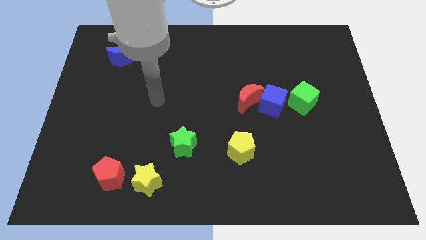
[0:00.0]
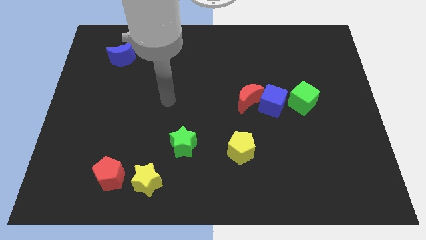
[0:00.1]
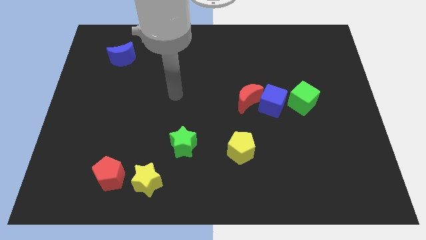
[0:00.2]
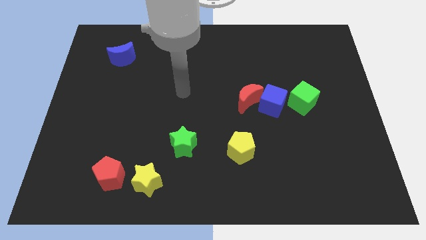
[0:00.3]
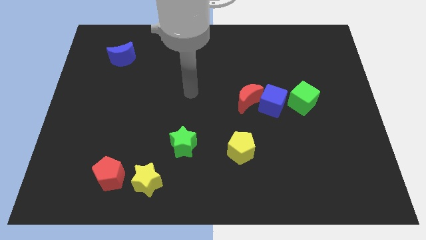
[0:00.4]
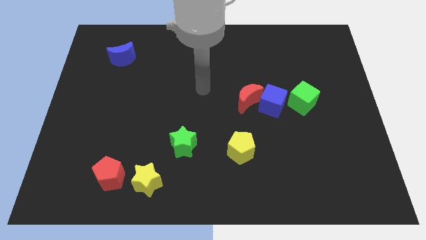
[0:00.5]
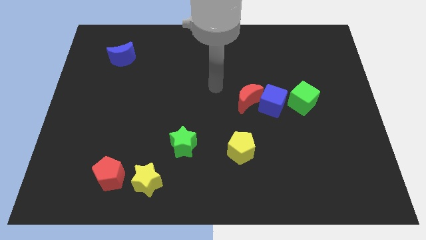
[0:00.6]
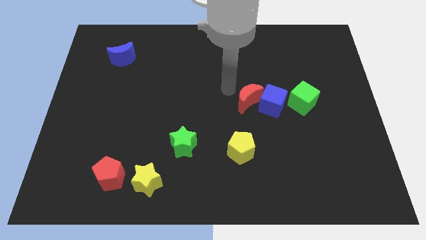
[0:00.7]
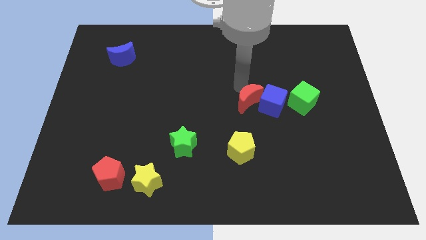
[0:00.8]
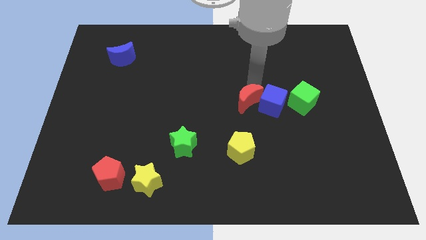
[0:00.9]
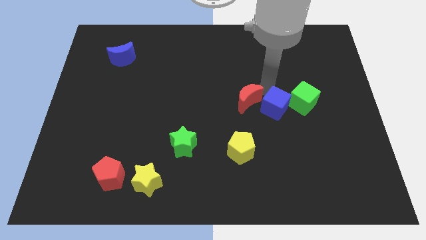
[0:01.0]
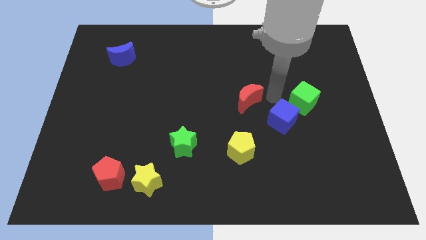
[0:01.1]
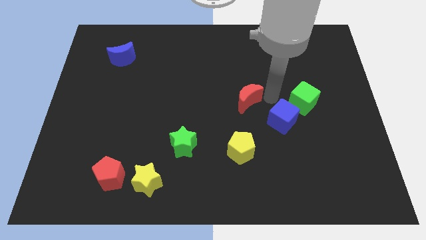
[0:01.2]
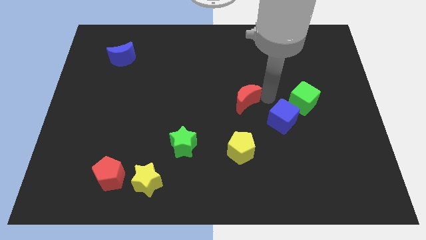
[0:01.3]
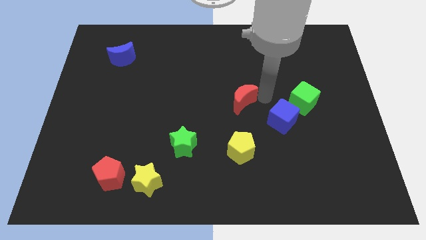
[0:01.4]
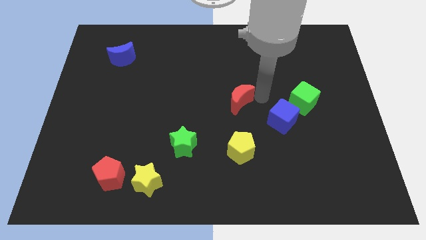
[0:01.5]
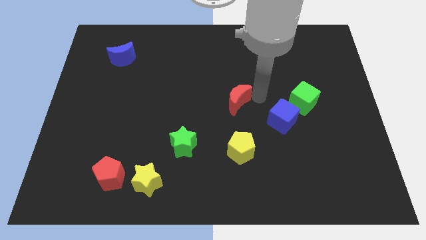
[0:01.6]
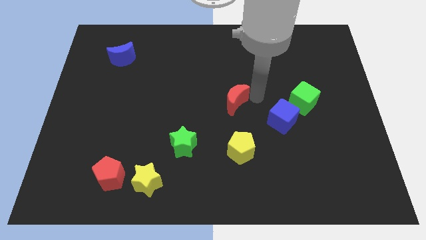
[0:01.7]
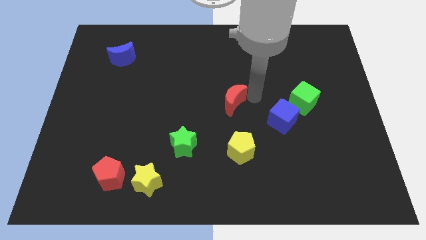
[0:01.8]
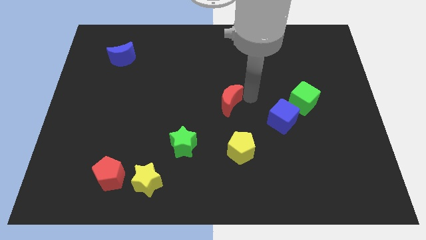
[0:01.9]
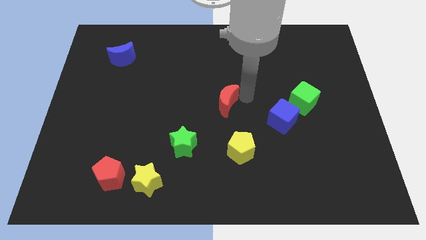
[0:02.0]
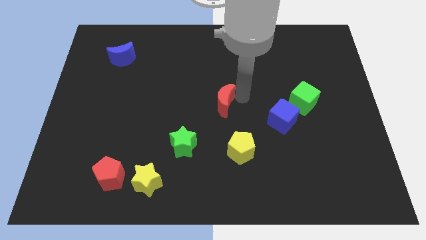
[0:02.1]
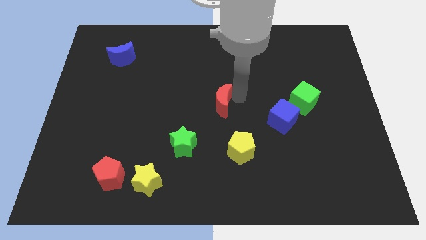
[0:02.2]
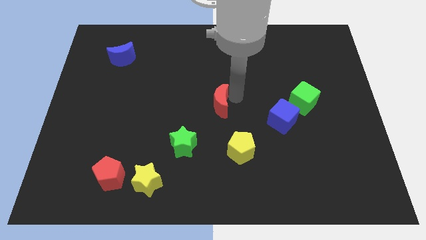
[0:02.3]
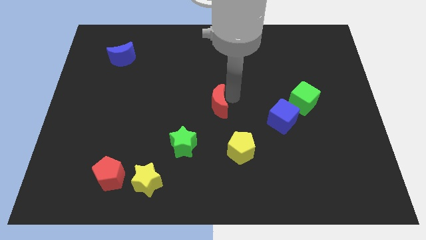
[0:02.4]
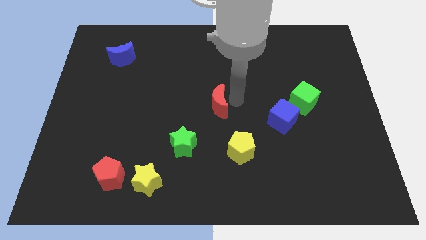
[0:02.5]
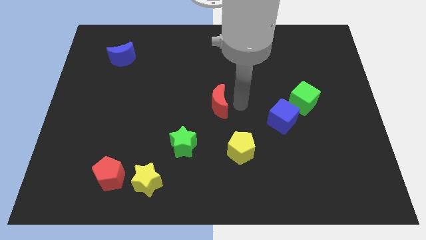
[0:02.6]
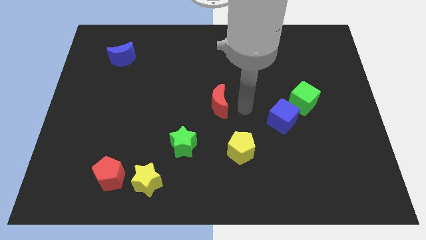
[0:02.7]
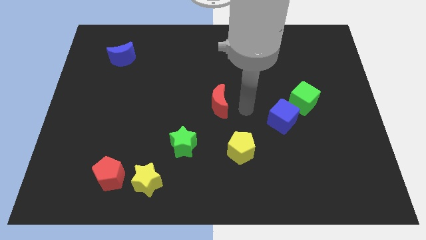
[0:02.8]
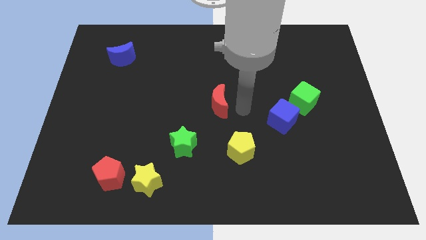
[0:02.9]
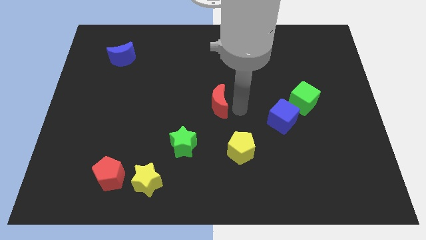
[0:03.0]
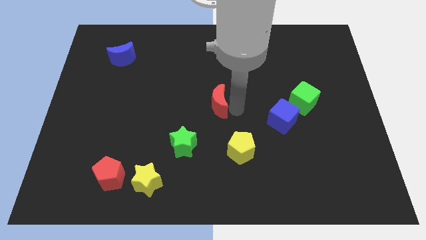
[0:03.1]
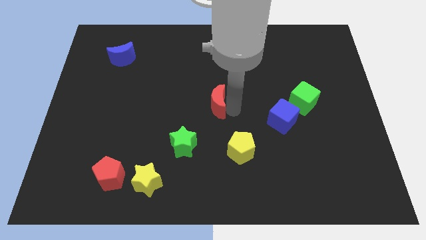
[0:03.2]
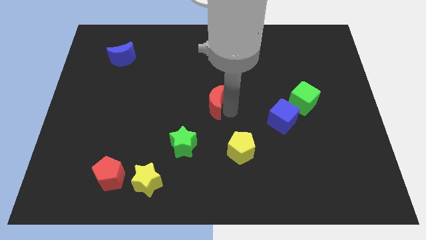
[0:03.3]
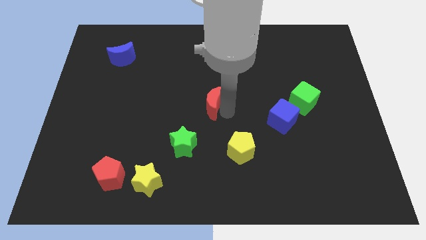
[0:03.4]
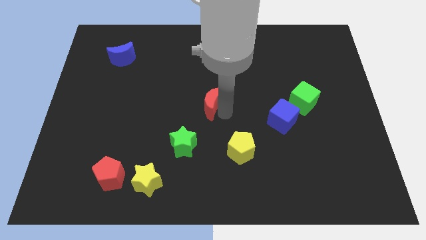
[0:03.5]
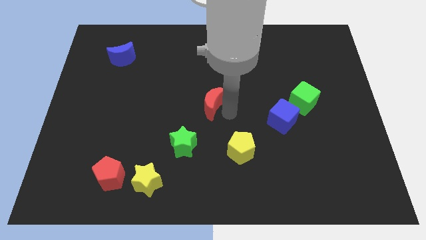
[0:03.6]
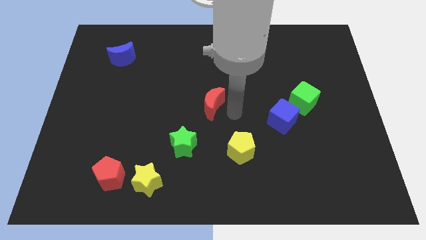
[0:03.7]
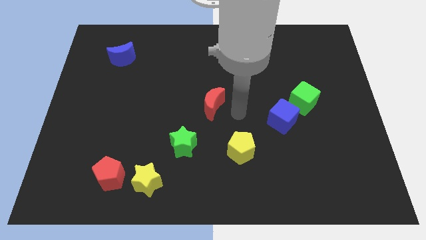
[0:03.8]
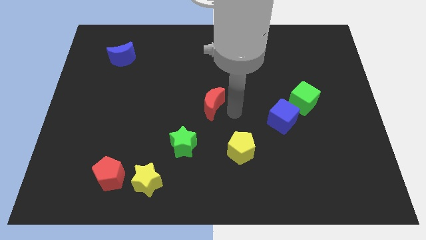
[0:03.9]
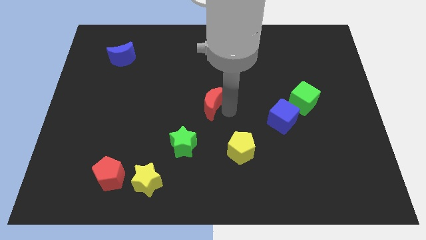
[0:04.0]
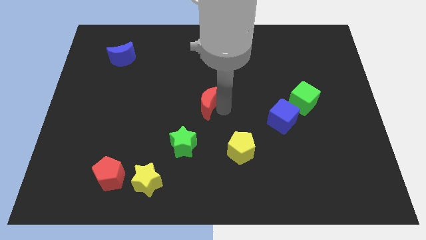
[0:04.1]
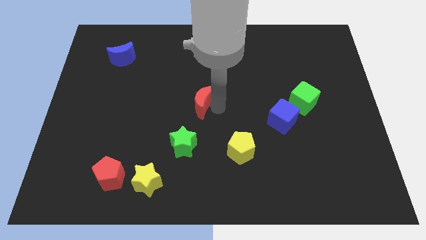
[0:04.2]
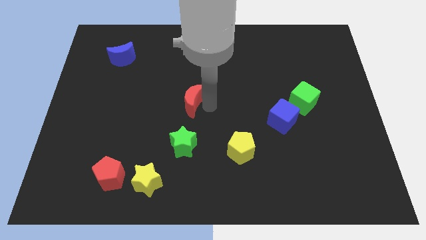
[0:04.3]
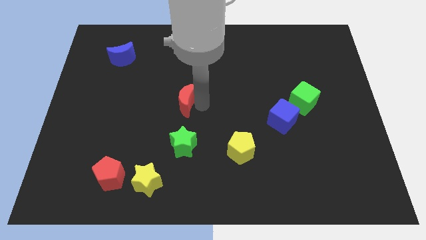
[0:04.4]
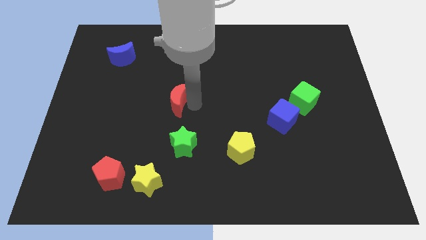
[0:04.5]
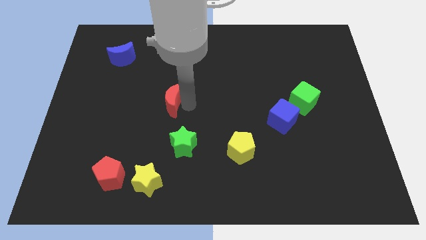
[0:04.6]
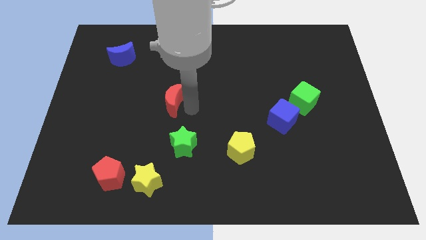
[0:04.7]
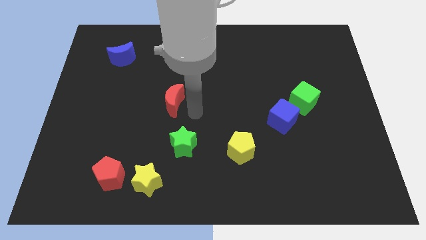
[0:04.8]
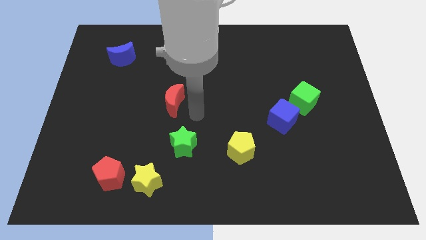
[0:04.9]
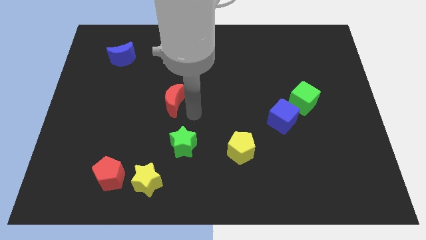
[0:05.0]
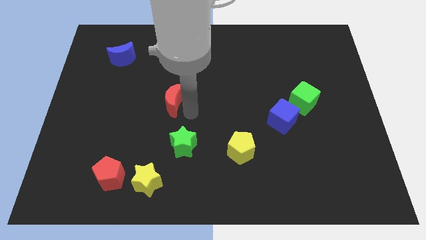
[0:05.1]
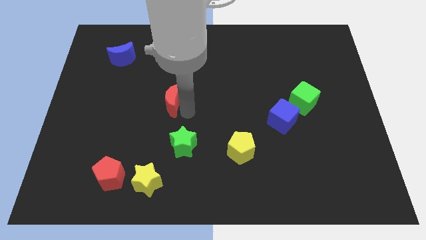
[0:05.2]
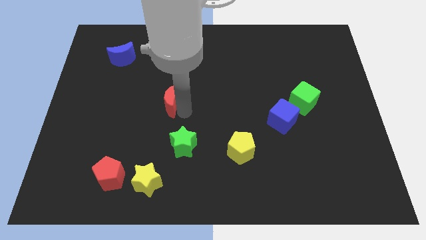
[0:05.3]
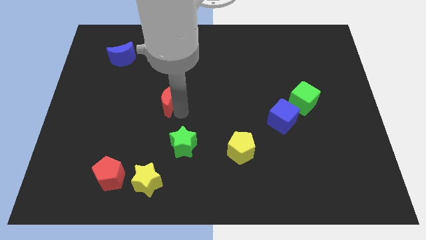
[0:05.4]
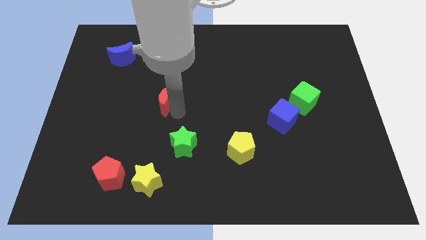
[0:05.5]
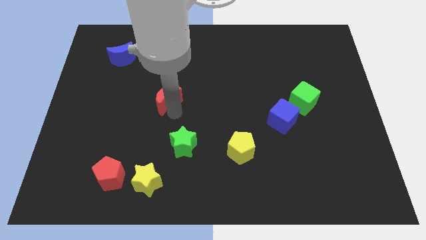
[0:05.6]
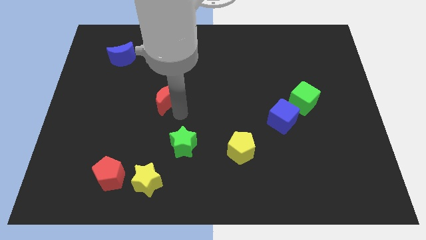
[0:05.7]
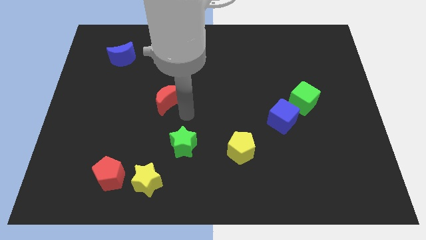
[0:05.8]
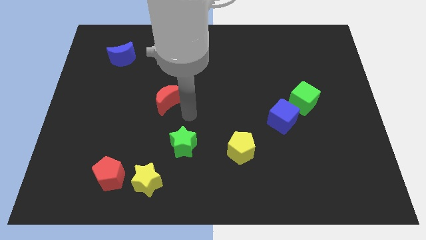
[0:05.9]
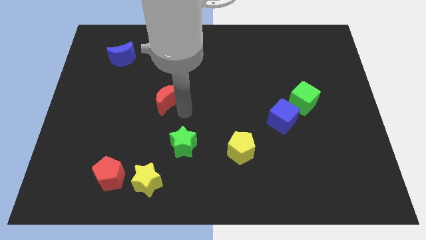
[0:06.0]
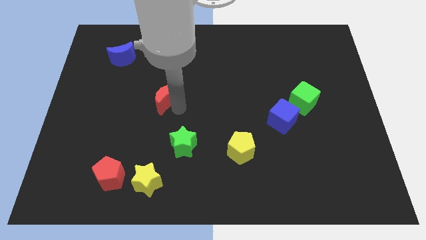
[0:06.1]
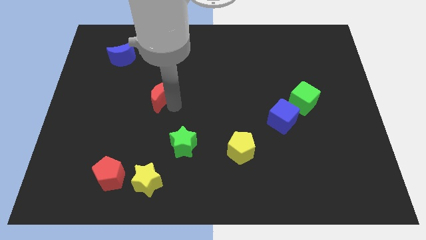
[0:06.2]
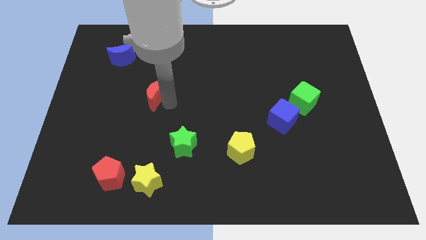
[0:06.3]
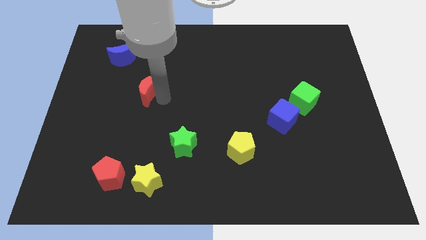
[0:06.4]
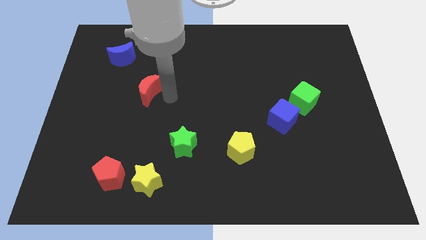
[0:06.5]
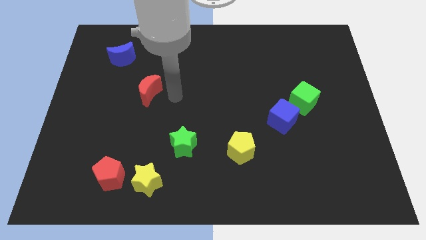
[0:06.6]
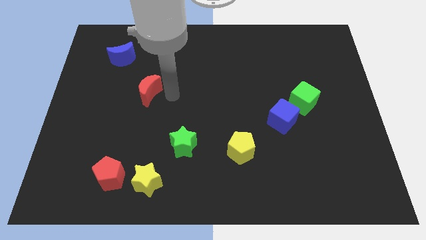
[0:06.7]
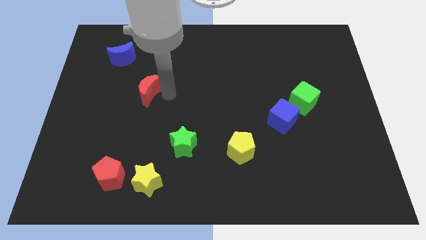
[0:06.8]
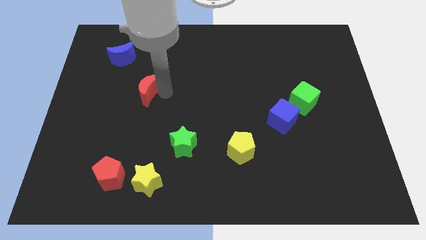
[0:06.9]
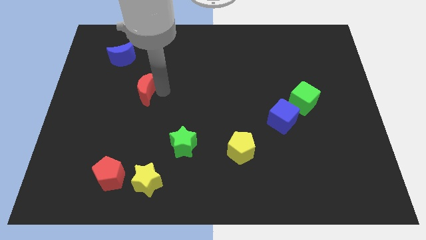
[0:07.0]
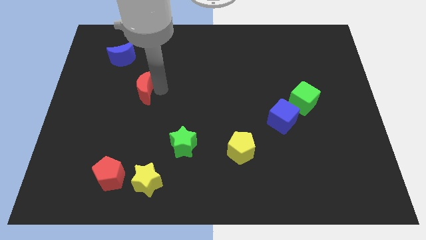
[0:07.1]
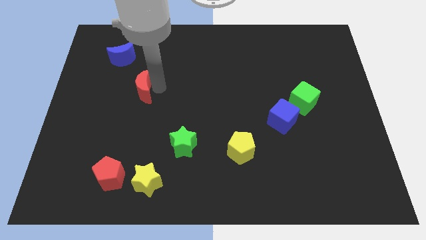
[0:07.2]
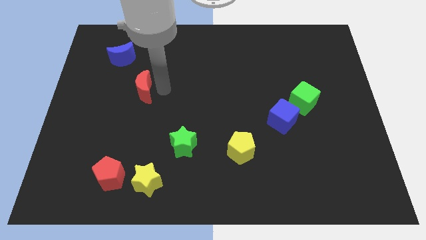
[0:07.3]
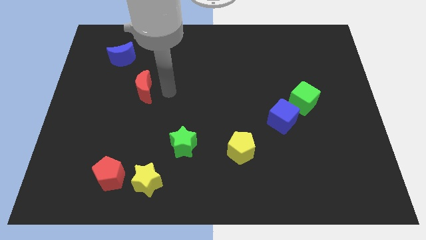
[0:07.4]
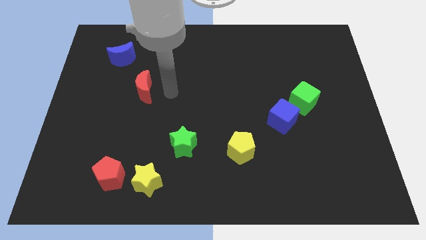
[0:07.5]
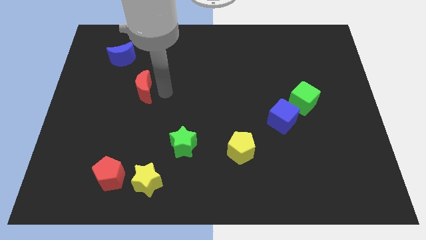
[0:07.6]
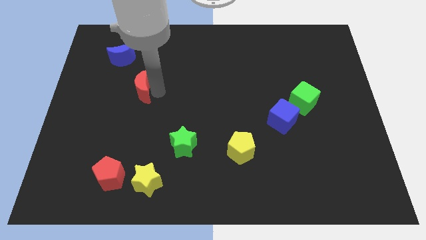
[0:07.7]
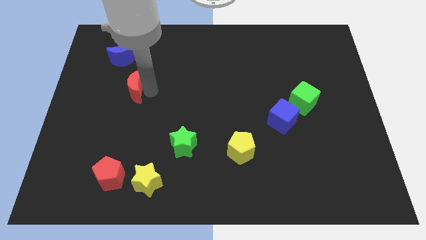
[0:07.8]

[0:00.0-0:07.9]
push the red moon below the blue moon
